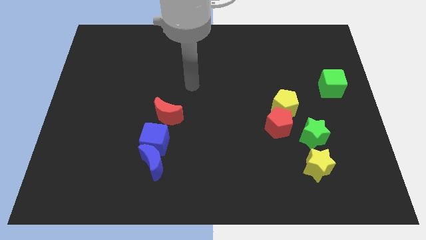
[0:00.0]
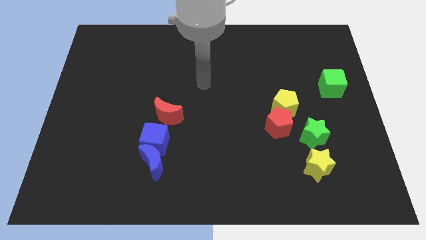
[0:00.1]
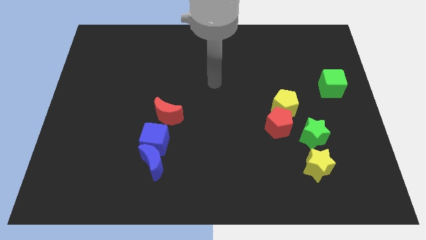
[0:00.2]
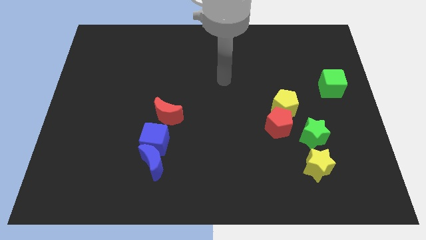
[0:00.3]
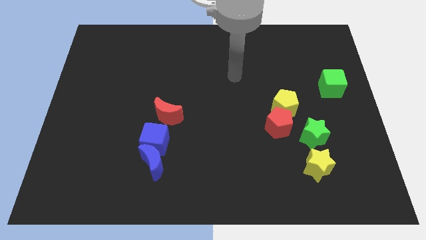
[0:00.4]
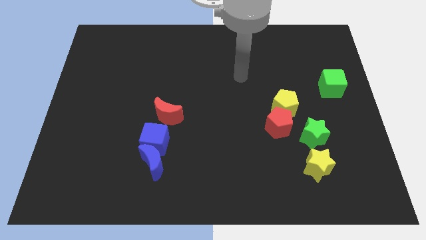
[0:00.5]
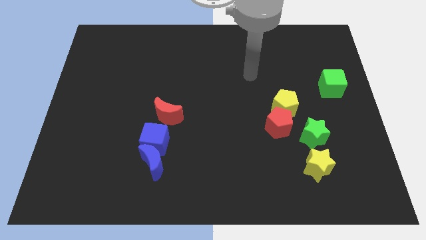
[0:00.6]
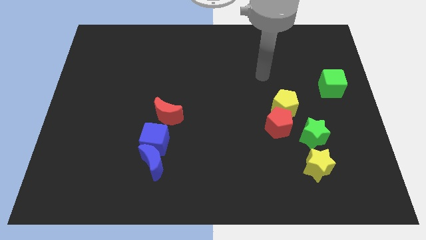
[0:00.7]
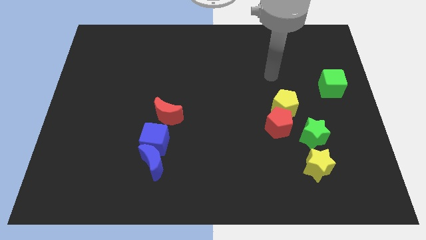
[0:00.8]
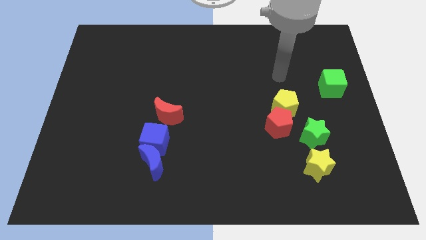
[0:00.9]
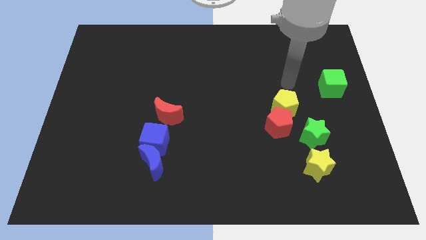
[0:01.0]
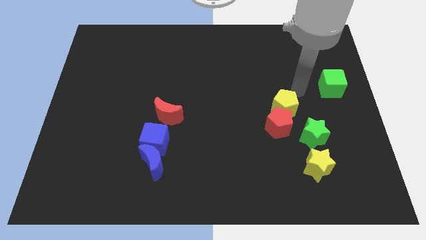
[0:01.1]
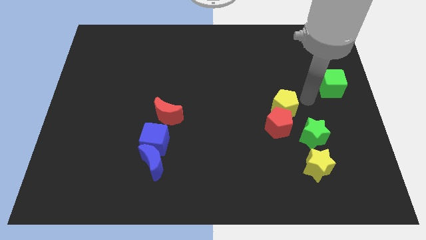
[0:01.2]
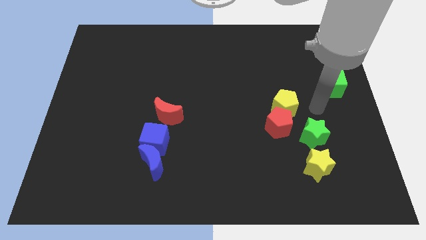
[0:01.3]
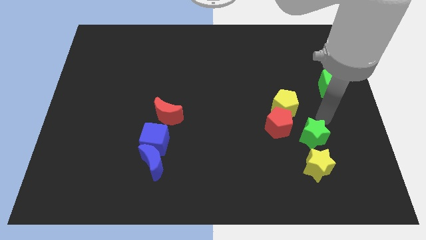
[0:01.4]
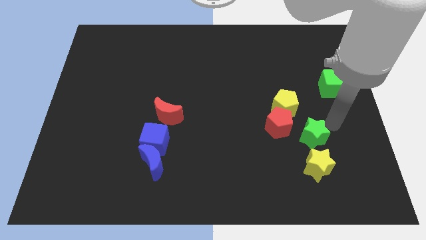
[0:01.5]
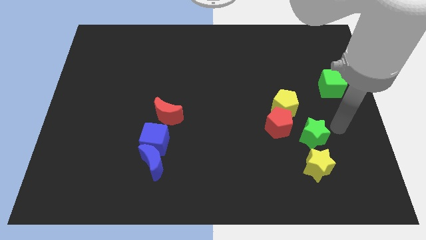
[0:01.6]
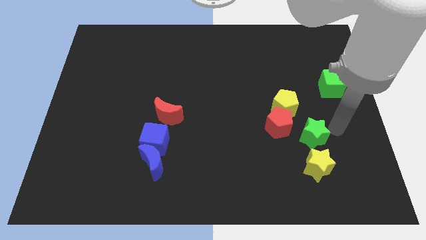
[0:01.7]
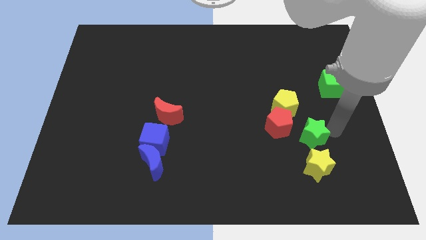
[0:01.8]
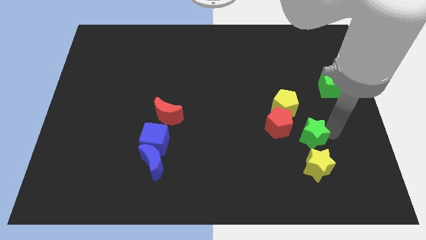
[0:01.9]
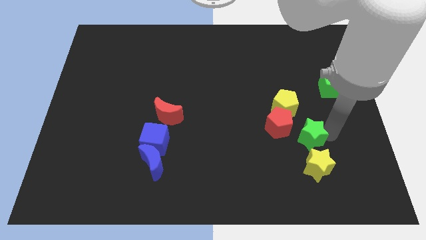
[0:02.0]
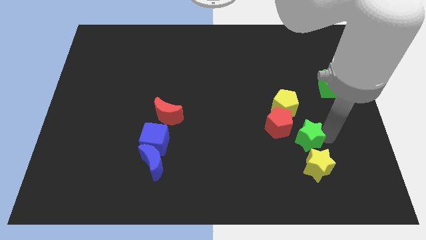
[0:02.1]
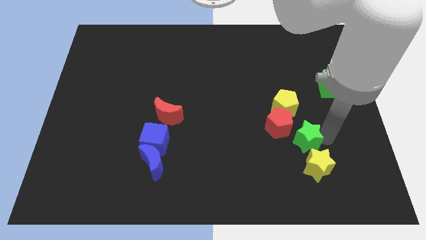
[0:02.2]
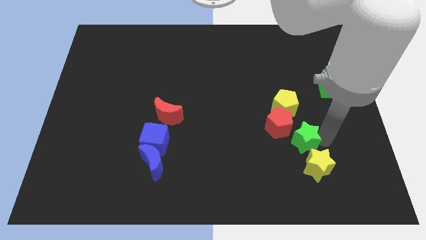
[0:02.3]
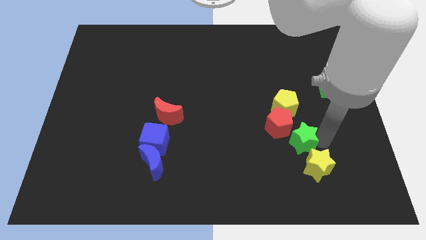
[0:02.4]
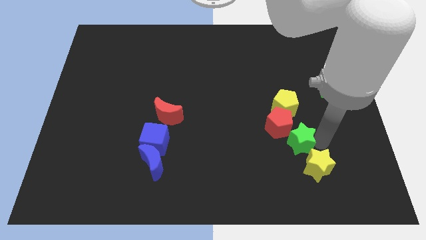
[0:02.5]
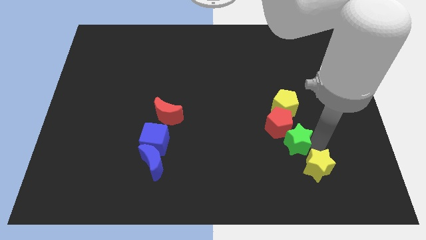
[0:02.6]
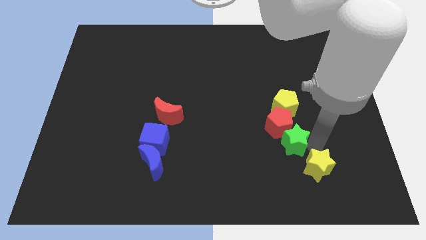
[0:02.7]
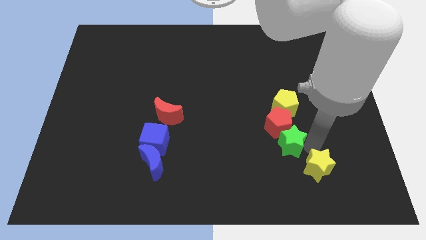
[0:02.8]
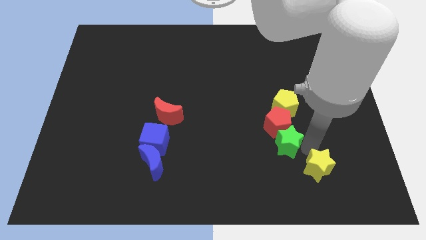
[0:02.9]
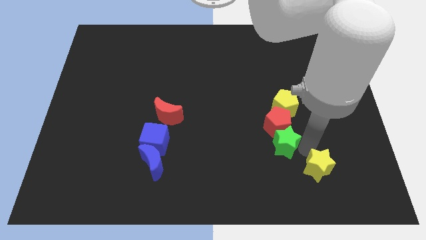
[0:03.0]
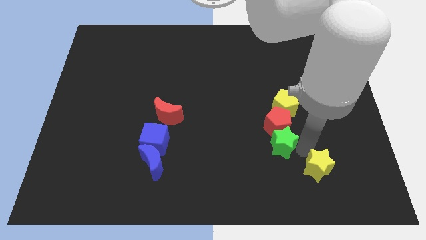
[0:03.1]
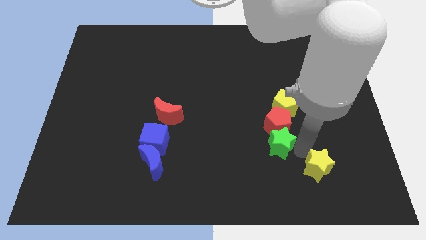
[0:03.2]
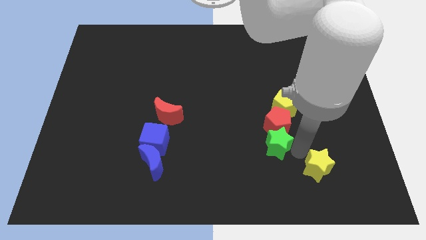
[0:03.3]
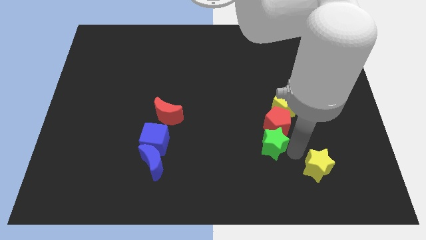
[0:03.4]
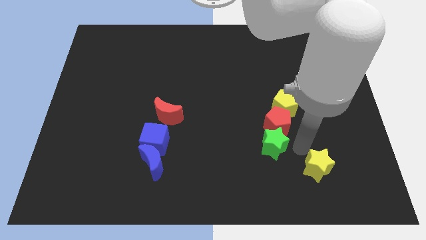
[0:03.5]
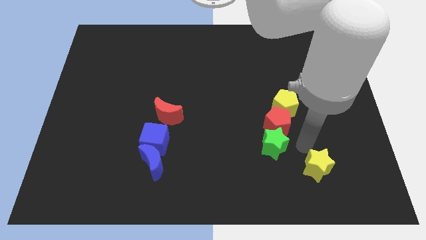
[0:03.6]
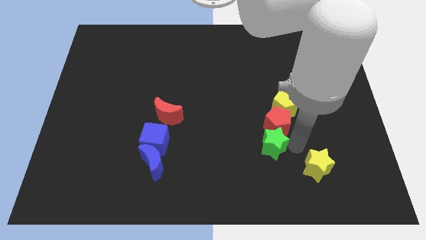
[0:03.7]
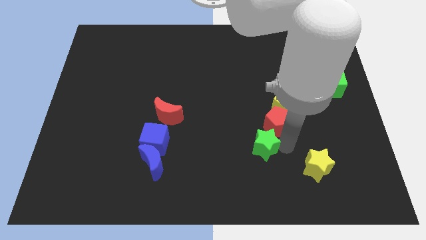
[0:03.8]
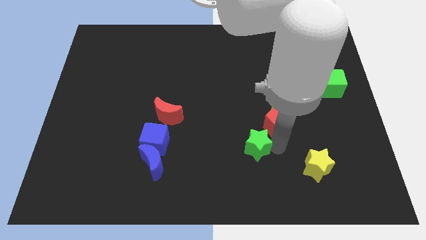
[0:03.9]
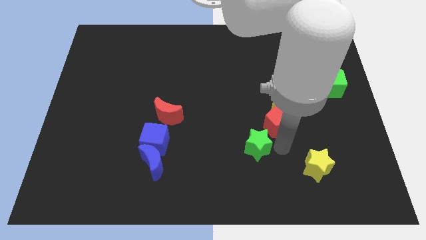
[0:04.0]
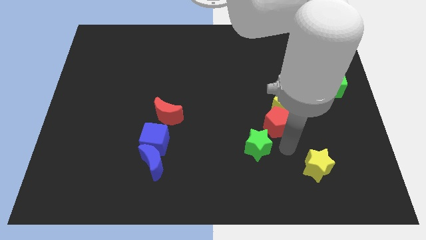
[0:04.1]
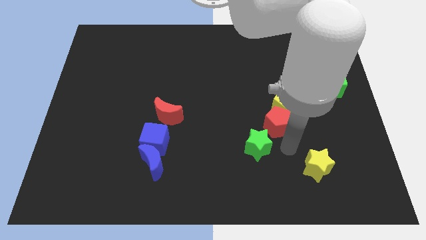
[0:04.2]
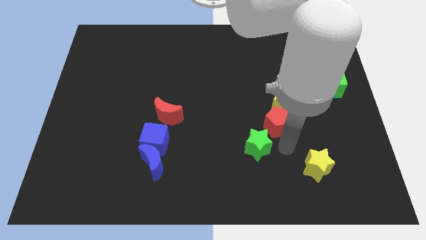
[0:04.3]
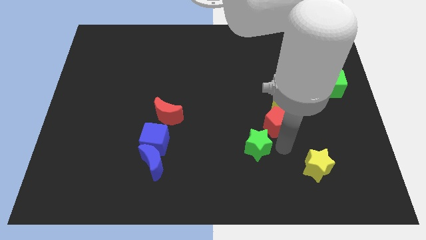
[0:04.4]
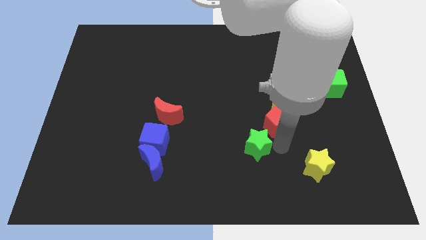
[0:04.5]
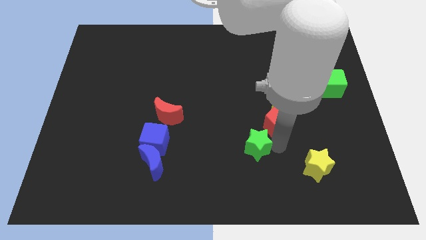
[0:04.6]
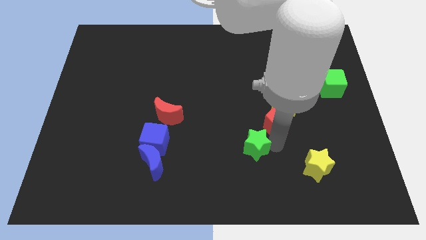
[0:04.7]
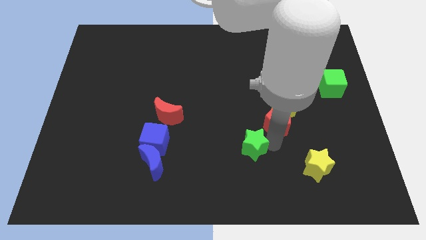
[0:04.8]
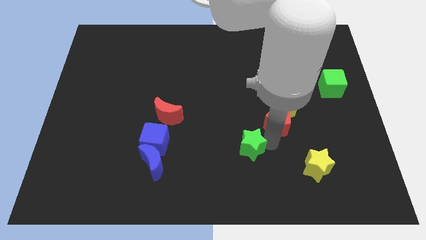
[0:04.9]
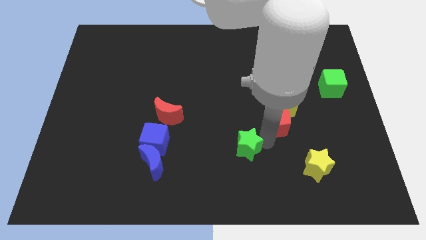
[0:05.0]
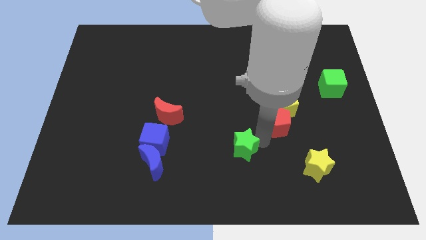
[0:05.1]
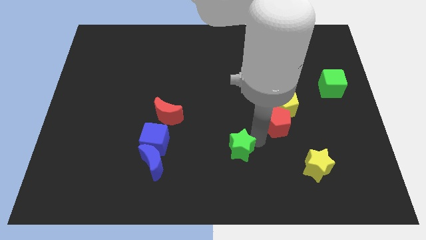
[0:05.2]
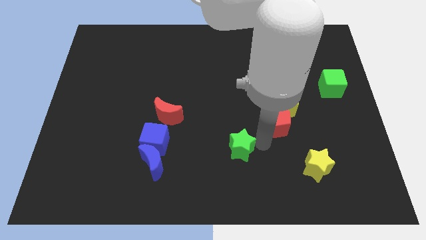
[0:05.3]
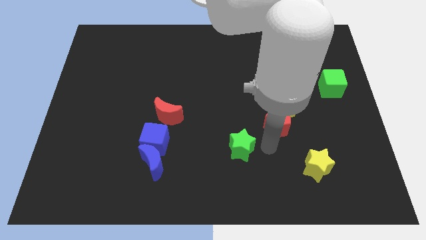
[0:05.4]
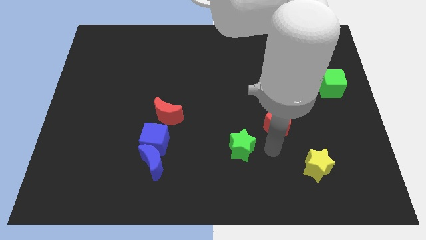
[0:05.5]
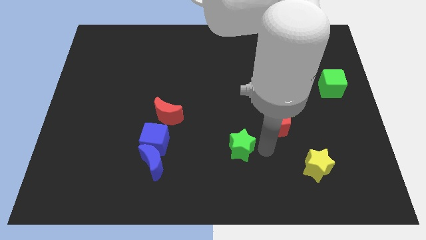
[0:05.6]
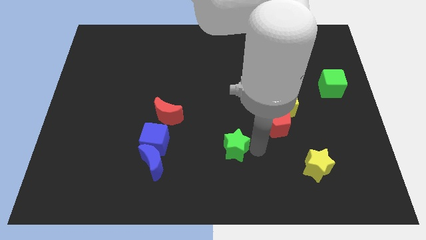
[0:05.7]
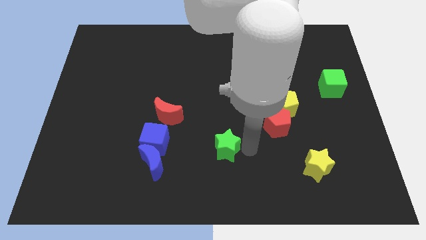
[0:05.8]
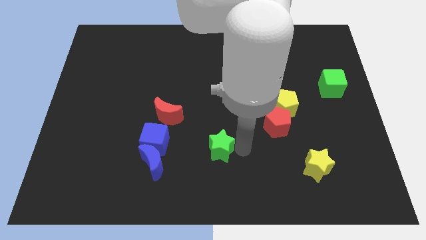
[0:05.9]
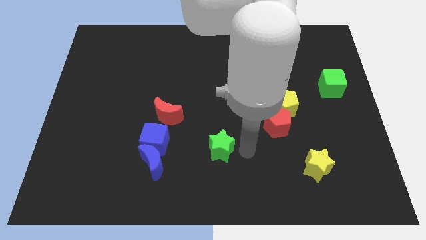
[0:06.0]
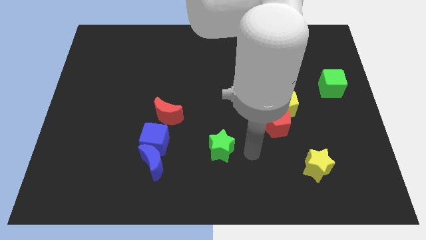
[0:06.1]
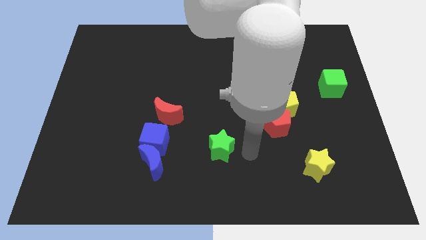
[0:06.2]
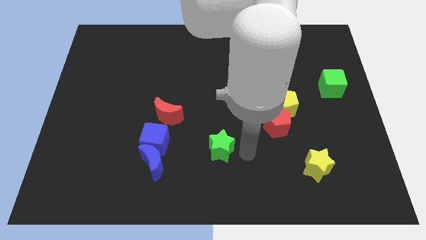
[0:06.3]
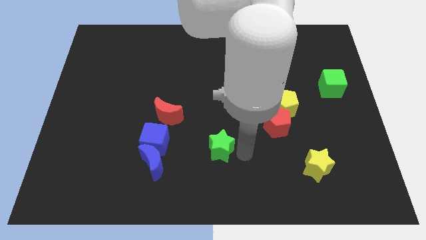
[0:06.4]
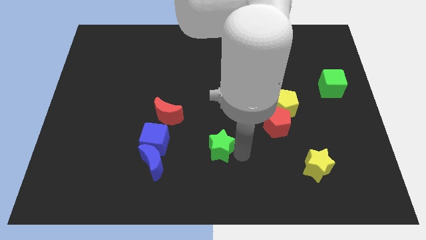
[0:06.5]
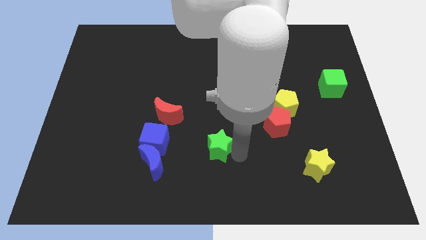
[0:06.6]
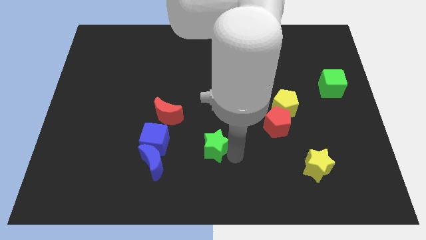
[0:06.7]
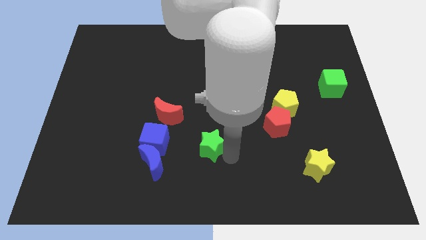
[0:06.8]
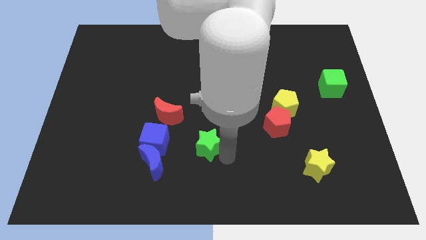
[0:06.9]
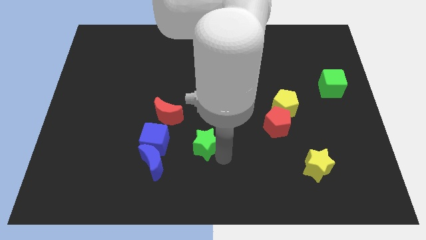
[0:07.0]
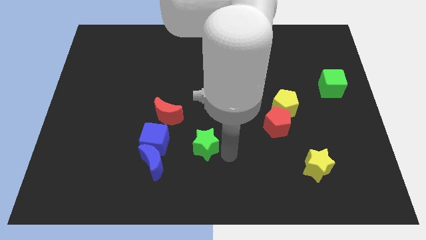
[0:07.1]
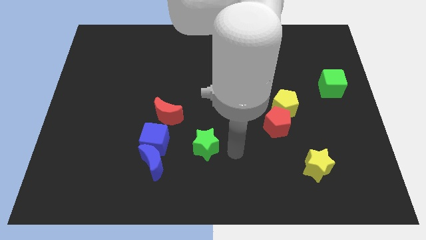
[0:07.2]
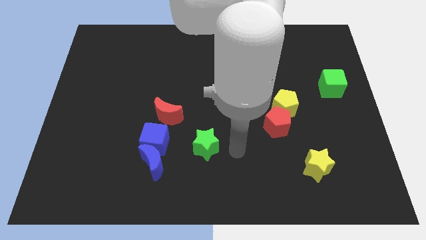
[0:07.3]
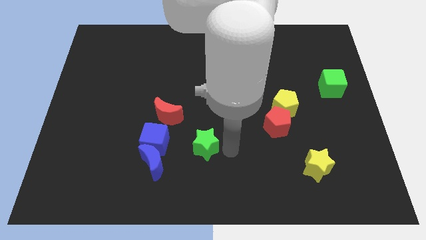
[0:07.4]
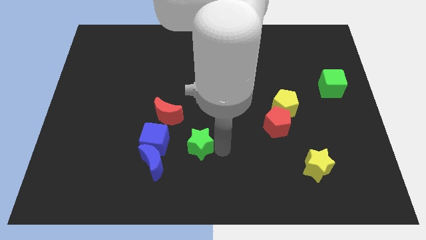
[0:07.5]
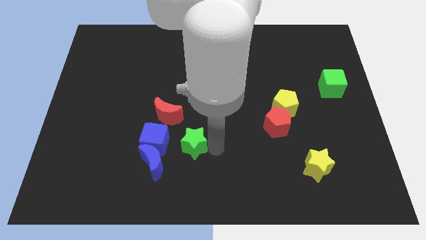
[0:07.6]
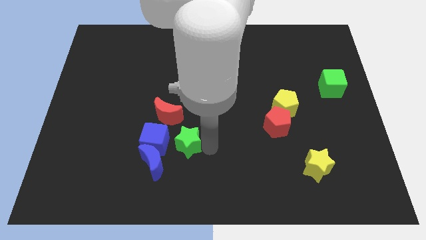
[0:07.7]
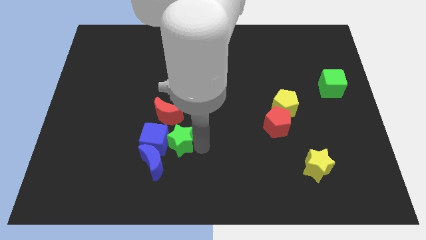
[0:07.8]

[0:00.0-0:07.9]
push the green star close to the blue cube
